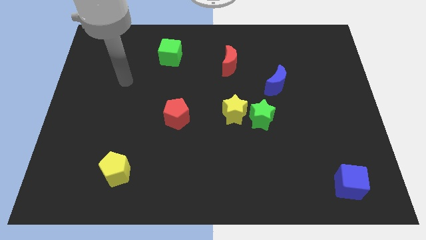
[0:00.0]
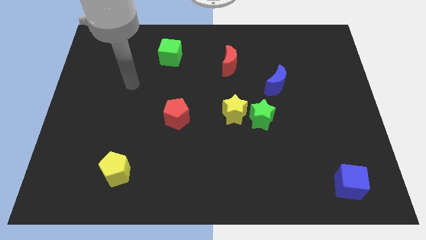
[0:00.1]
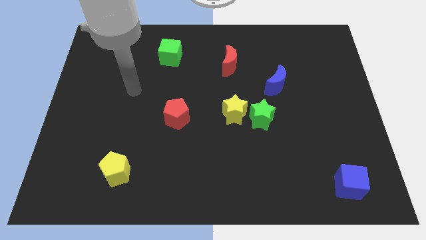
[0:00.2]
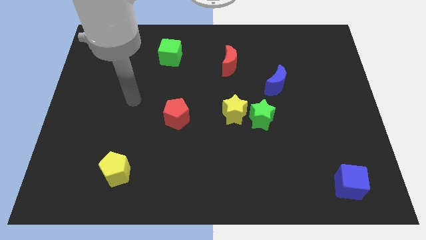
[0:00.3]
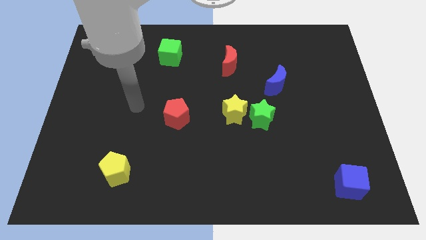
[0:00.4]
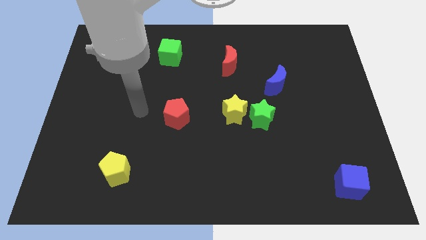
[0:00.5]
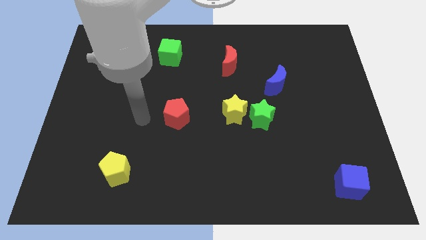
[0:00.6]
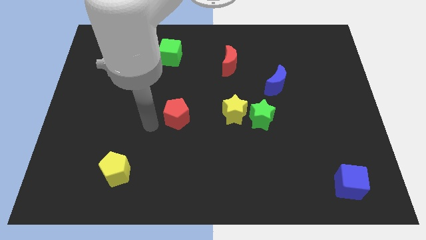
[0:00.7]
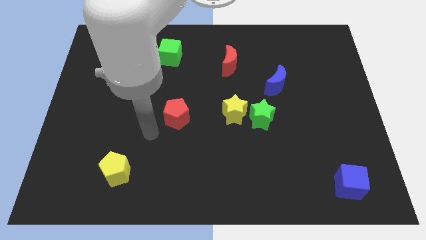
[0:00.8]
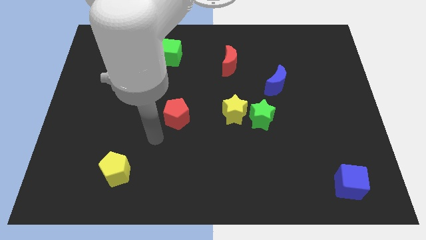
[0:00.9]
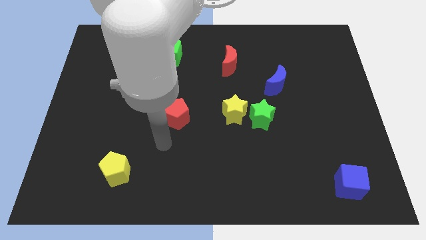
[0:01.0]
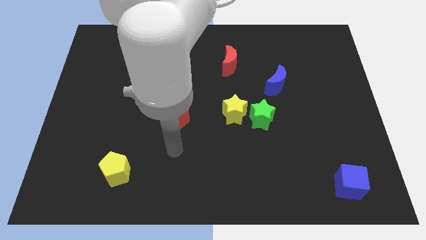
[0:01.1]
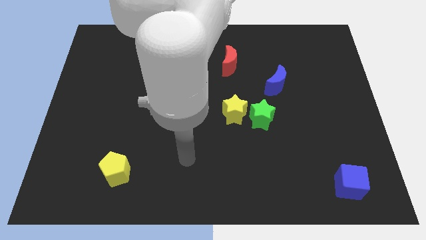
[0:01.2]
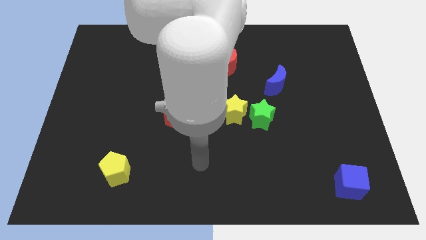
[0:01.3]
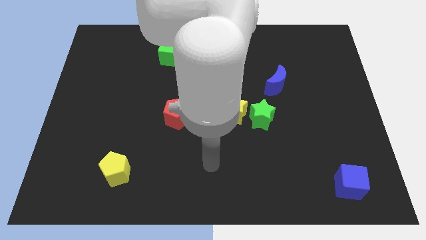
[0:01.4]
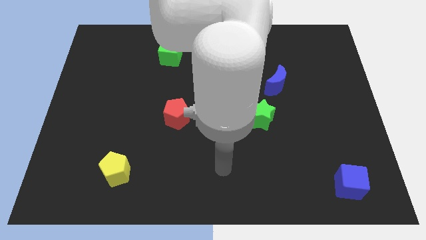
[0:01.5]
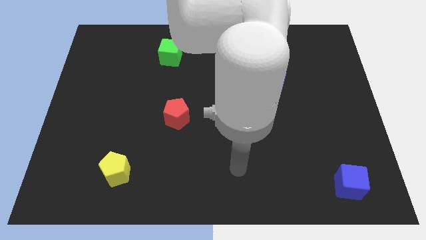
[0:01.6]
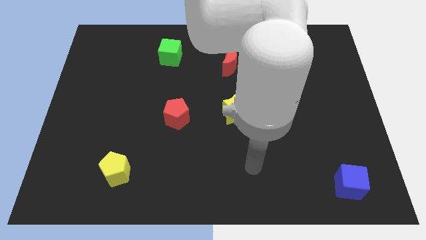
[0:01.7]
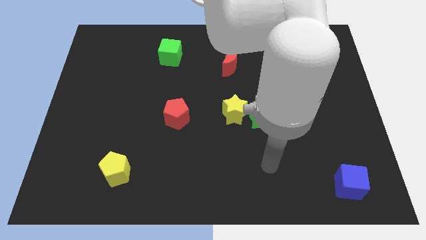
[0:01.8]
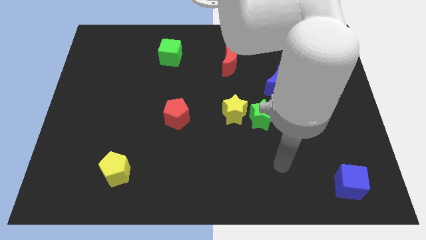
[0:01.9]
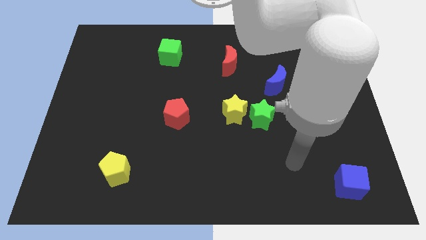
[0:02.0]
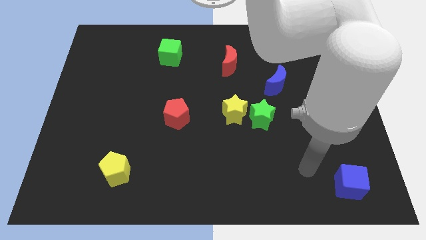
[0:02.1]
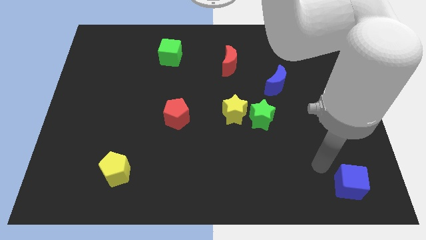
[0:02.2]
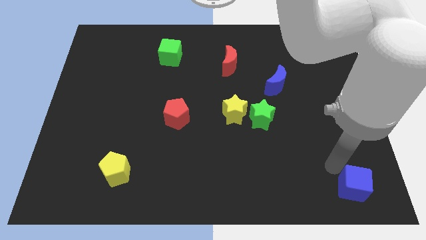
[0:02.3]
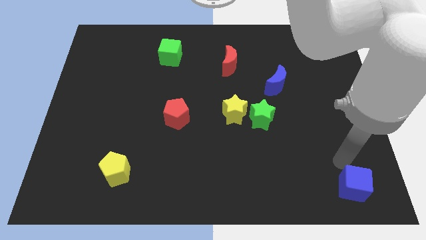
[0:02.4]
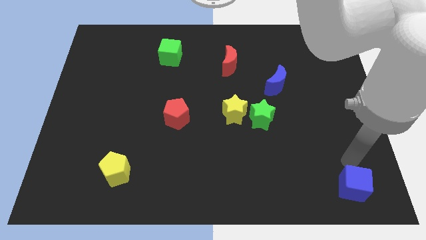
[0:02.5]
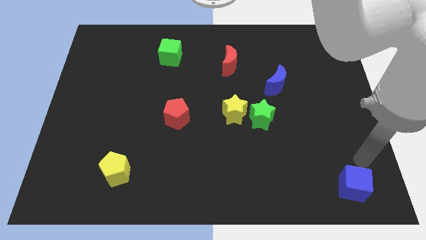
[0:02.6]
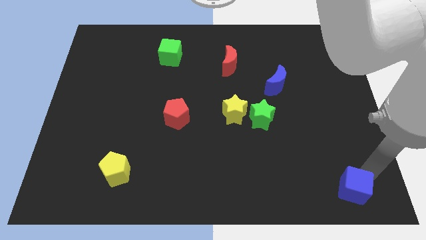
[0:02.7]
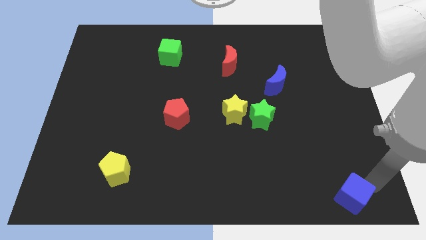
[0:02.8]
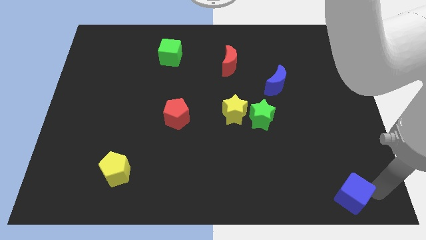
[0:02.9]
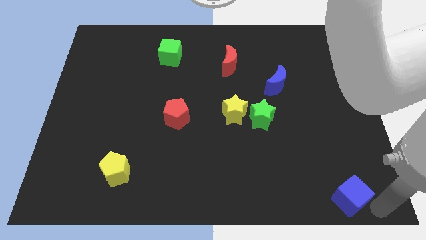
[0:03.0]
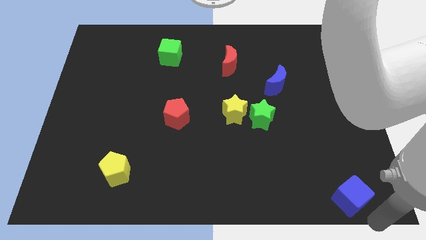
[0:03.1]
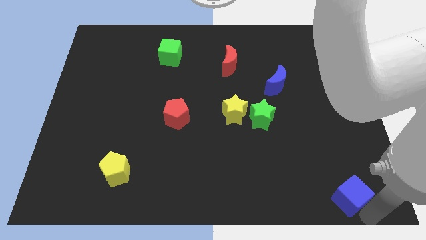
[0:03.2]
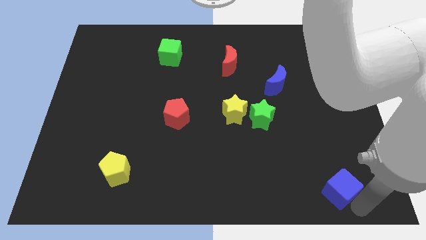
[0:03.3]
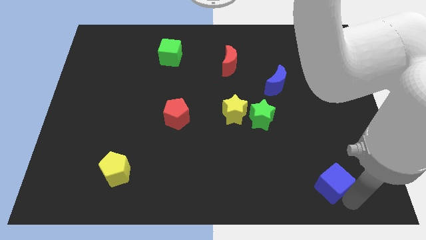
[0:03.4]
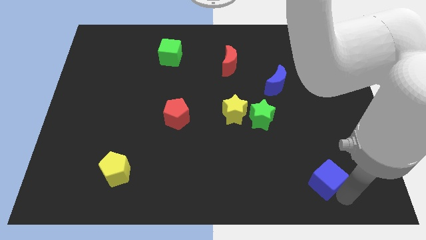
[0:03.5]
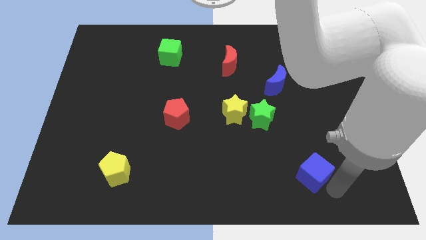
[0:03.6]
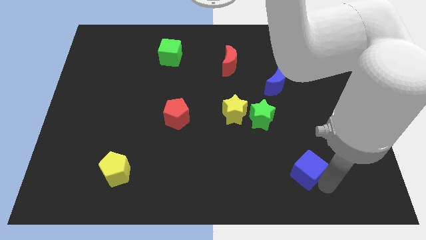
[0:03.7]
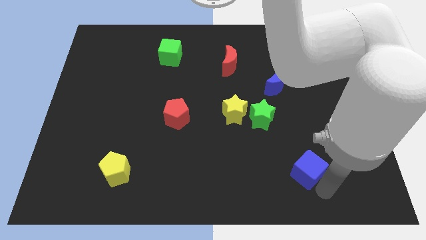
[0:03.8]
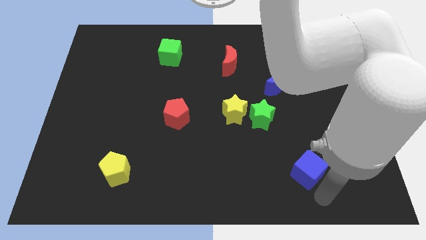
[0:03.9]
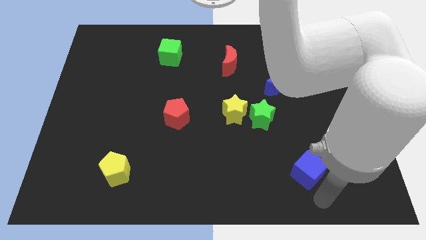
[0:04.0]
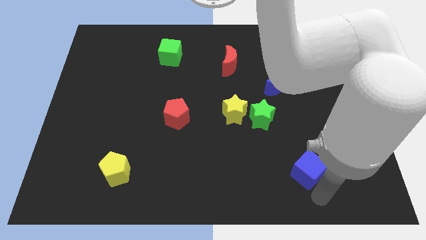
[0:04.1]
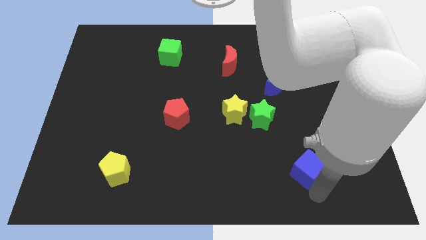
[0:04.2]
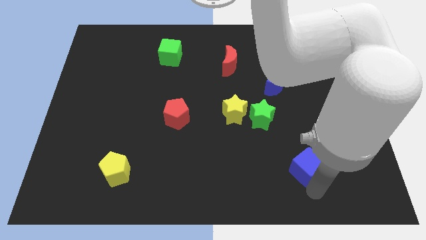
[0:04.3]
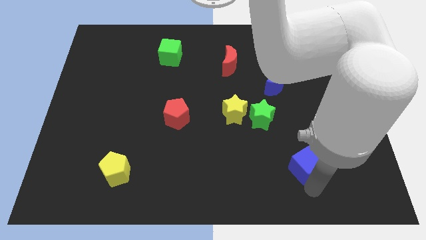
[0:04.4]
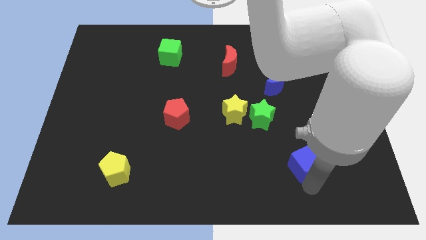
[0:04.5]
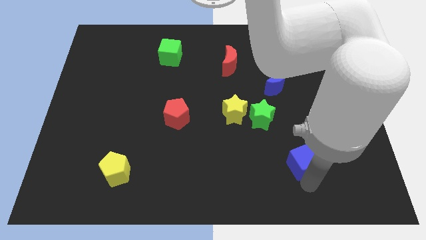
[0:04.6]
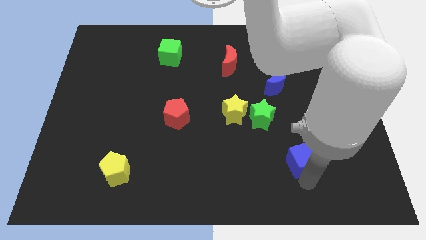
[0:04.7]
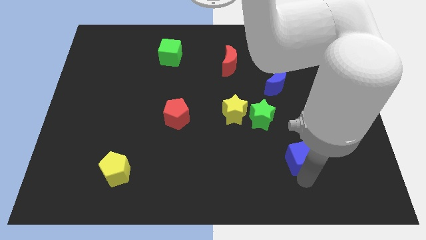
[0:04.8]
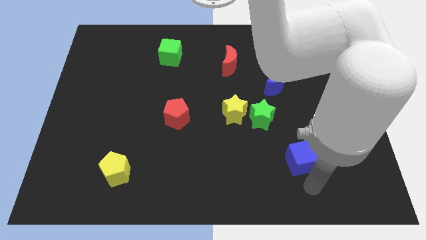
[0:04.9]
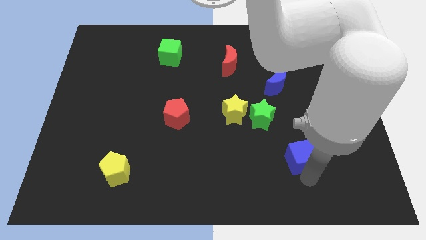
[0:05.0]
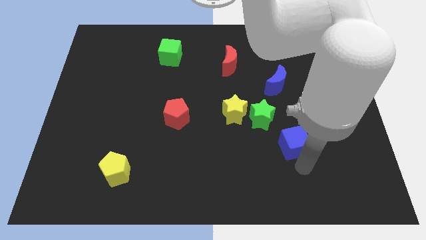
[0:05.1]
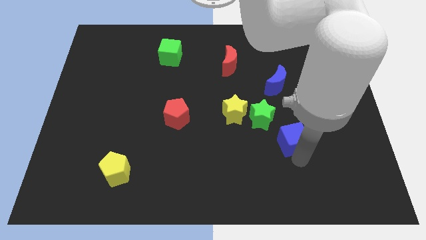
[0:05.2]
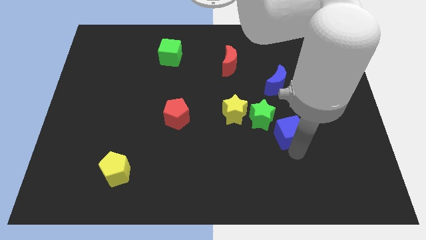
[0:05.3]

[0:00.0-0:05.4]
push the blue cube to the bottom side of the blue moon

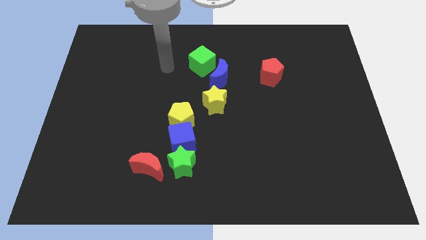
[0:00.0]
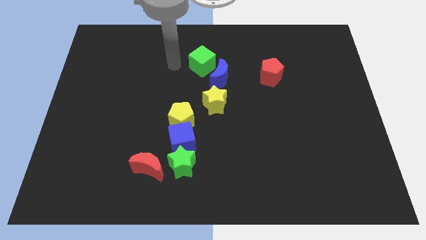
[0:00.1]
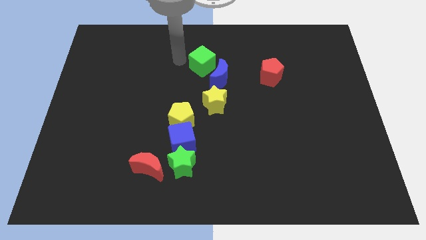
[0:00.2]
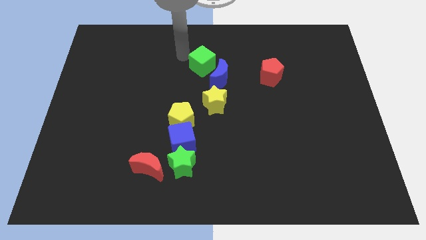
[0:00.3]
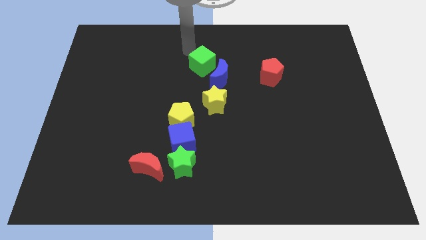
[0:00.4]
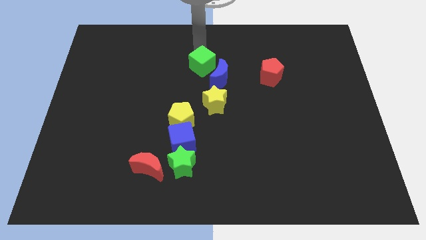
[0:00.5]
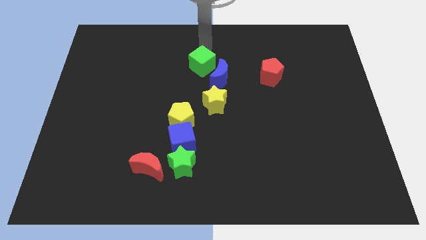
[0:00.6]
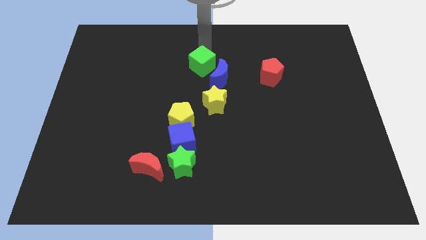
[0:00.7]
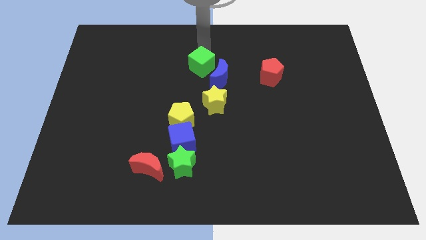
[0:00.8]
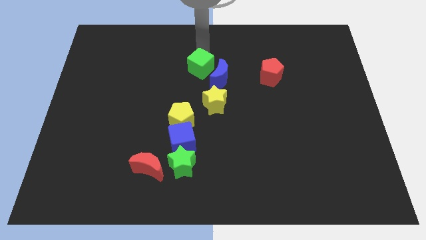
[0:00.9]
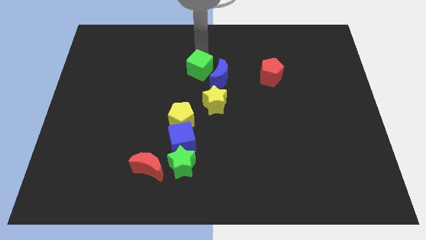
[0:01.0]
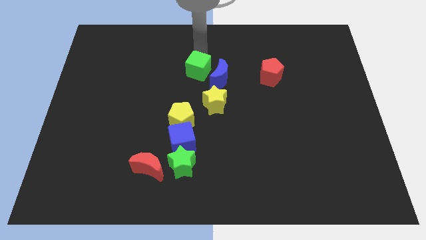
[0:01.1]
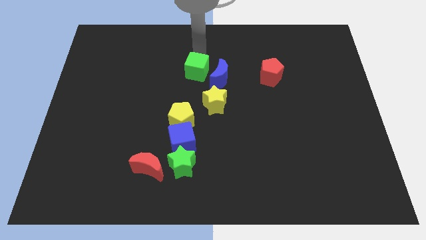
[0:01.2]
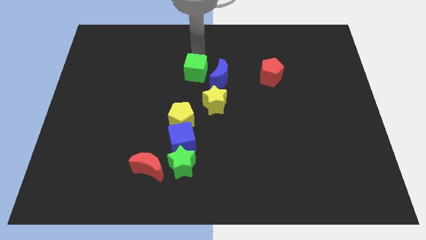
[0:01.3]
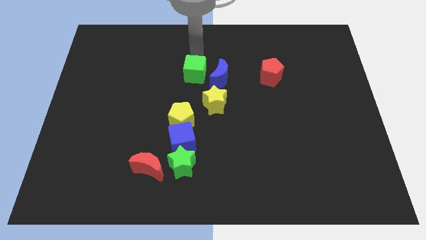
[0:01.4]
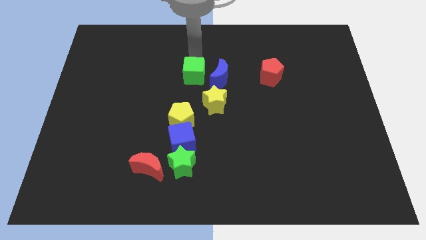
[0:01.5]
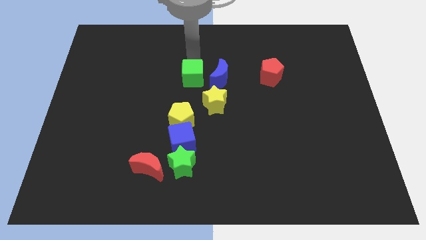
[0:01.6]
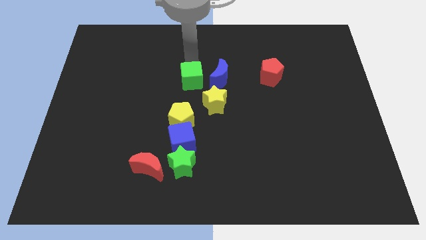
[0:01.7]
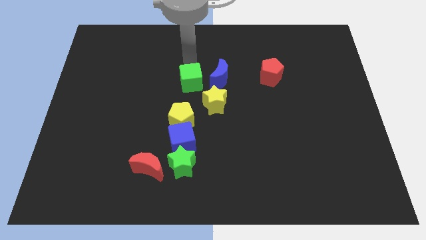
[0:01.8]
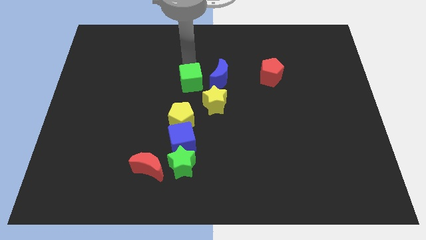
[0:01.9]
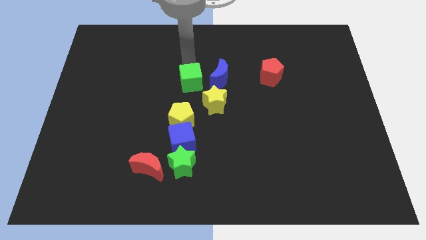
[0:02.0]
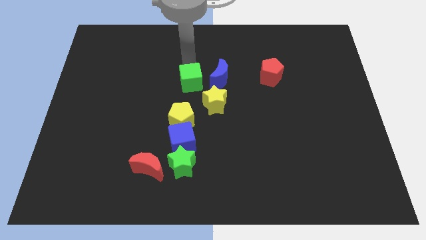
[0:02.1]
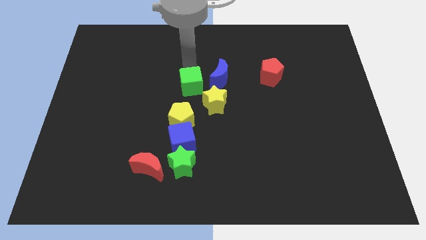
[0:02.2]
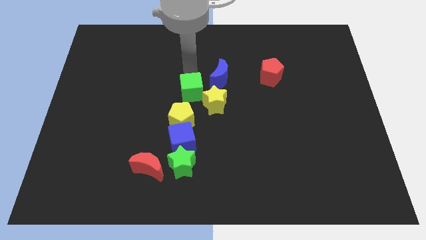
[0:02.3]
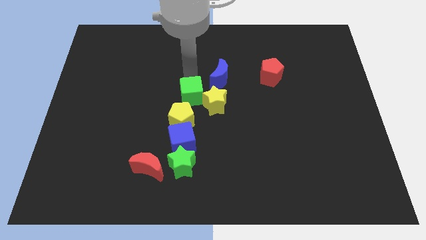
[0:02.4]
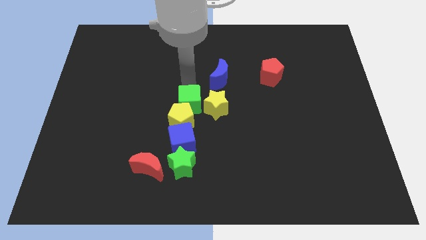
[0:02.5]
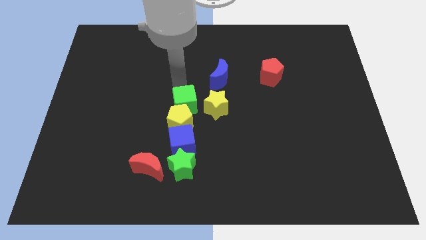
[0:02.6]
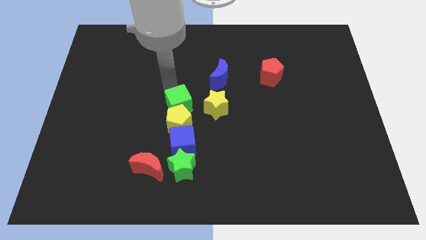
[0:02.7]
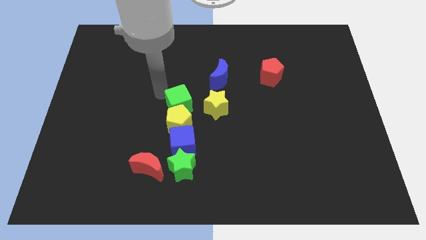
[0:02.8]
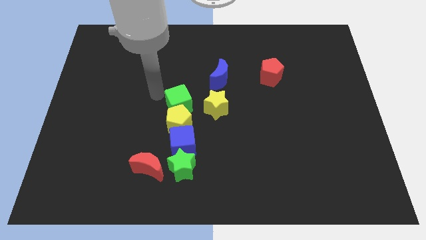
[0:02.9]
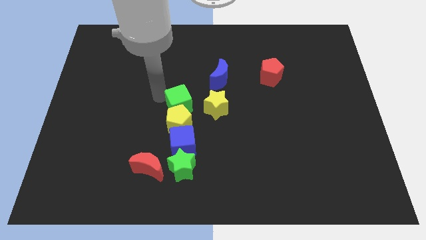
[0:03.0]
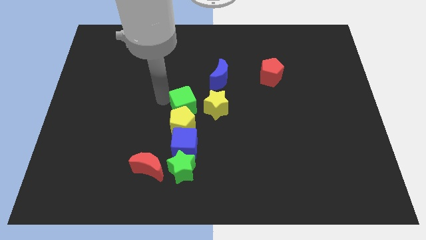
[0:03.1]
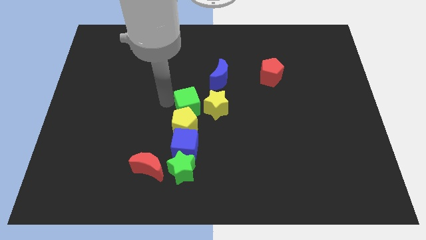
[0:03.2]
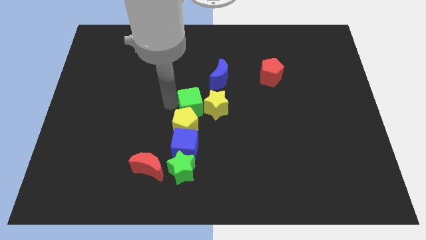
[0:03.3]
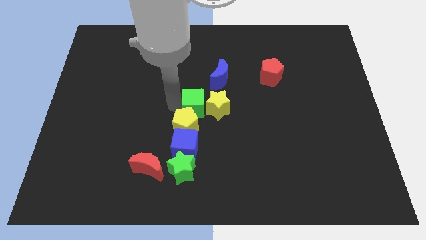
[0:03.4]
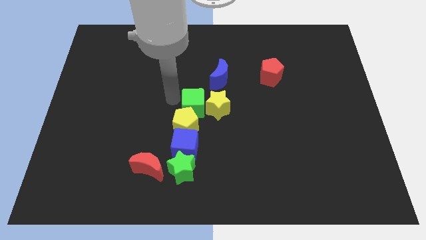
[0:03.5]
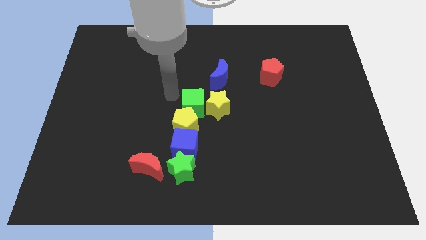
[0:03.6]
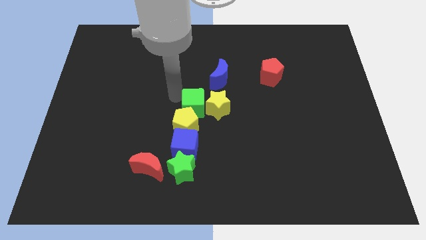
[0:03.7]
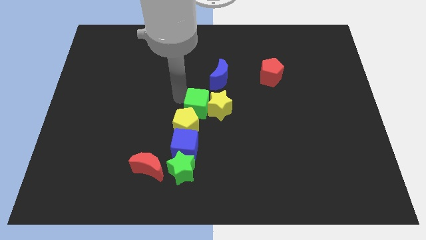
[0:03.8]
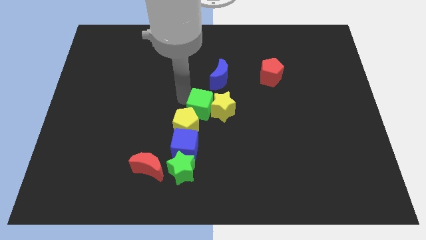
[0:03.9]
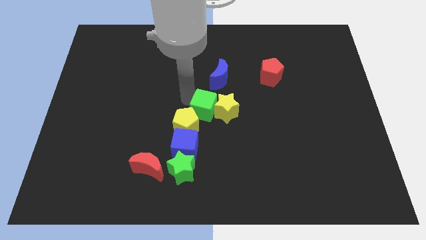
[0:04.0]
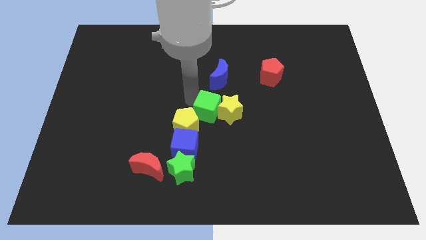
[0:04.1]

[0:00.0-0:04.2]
slide the green cube just right of the yellow pentagon
